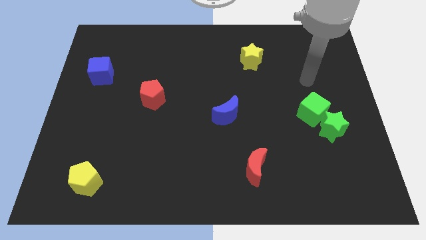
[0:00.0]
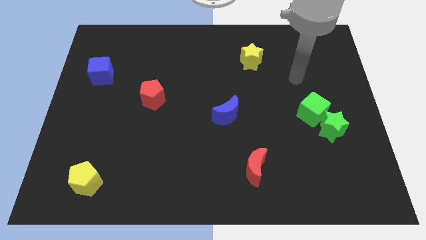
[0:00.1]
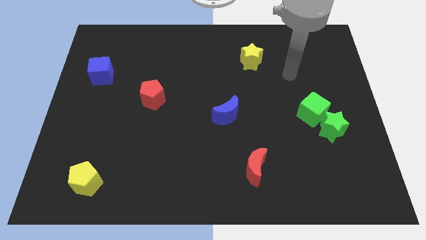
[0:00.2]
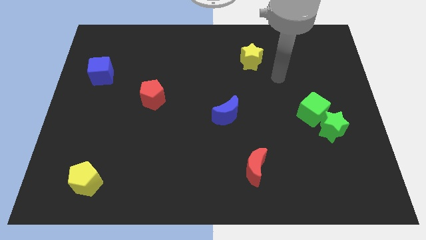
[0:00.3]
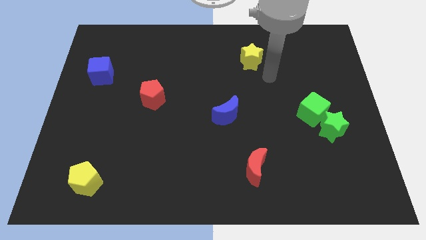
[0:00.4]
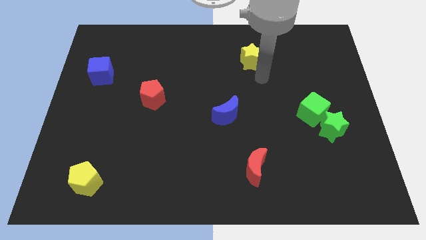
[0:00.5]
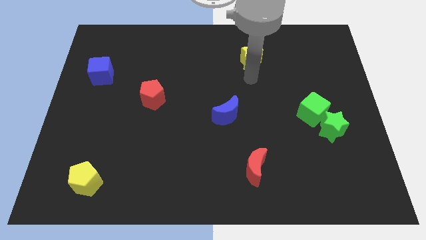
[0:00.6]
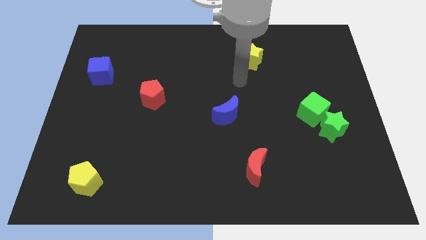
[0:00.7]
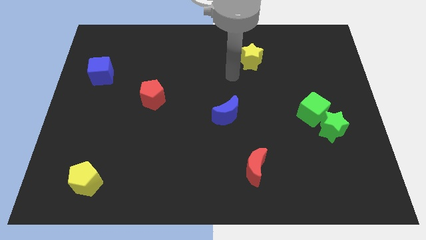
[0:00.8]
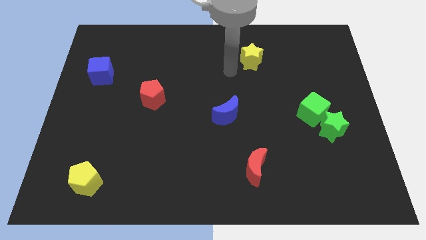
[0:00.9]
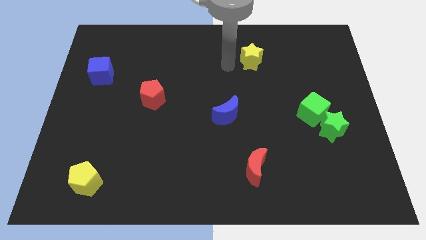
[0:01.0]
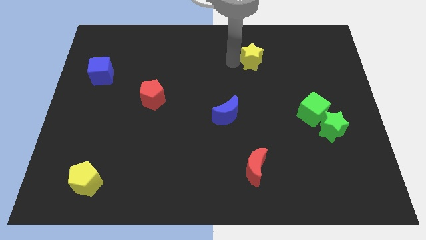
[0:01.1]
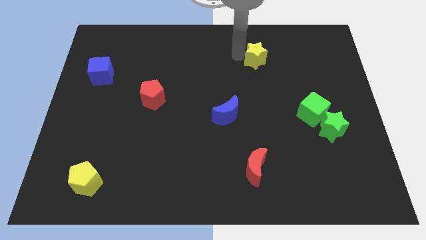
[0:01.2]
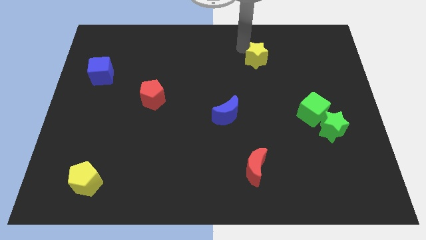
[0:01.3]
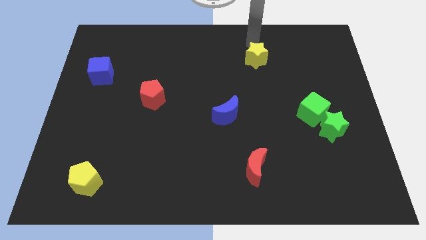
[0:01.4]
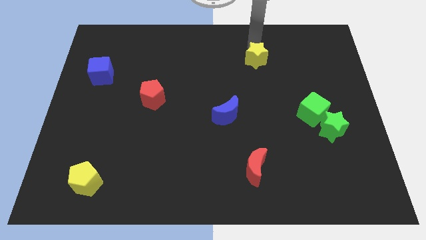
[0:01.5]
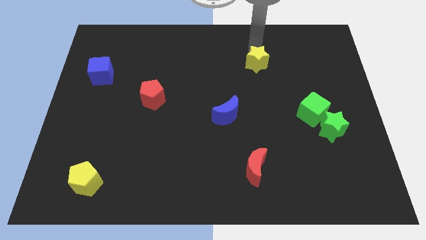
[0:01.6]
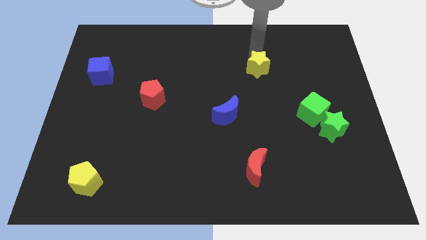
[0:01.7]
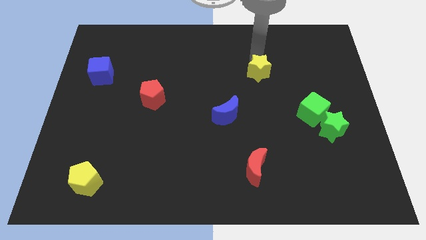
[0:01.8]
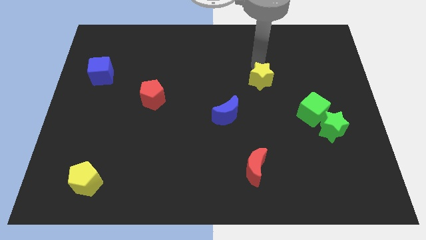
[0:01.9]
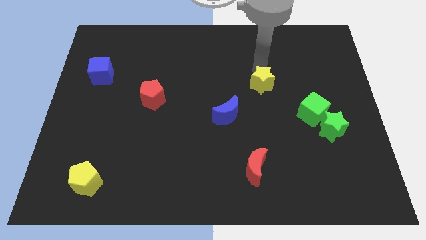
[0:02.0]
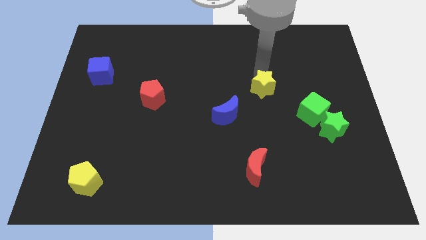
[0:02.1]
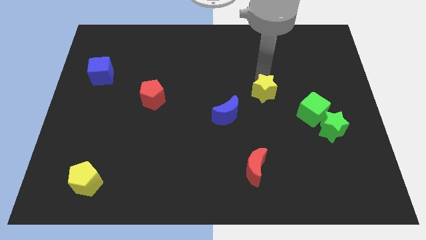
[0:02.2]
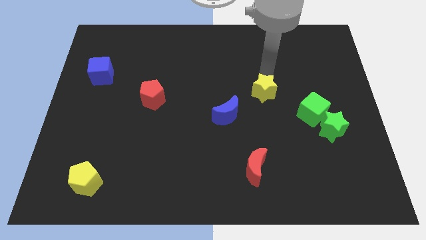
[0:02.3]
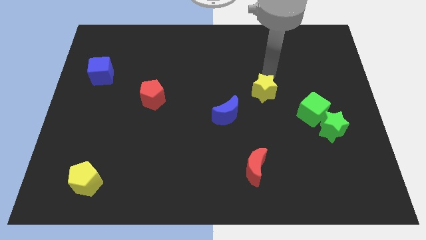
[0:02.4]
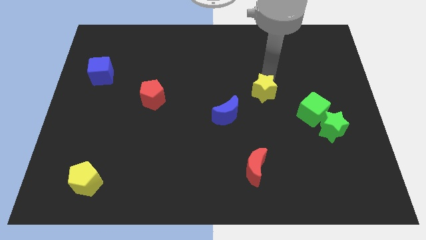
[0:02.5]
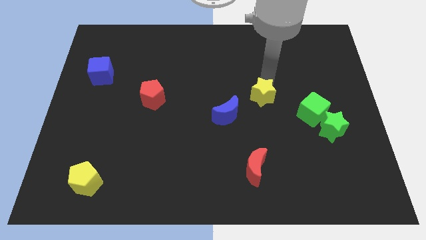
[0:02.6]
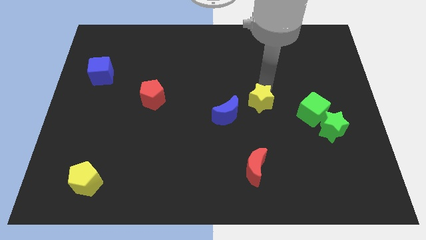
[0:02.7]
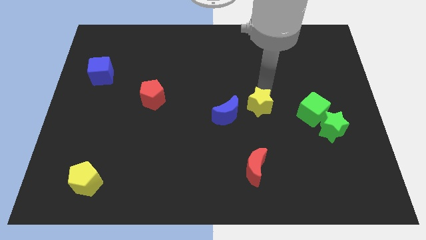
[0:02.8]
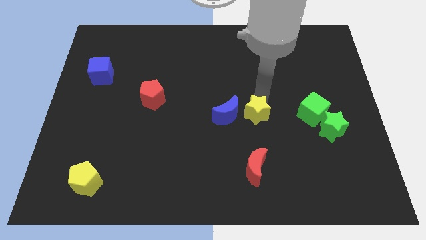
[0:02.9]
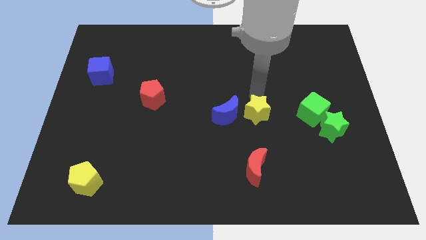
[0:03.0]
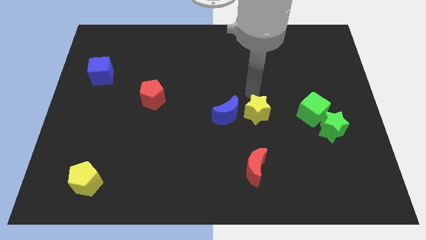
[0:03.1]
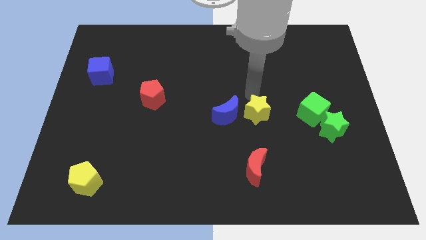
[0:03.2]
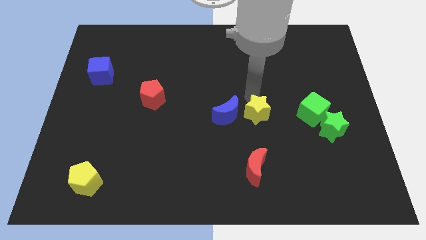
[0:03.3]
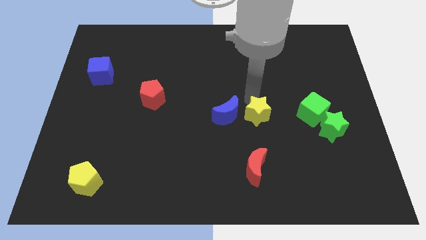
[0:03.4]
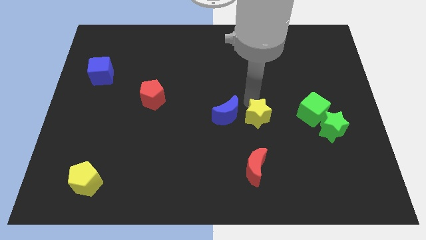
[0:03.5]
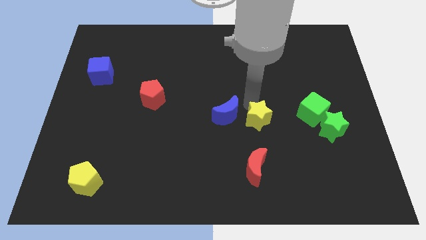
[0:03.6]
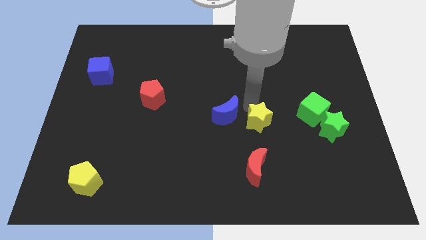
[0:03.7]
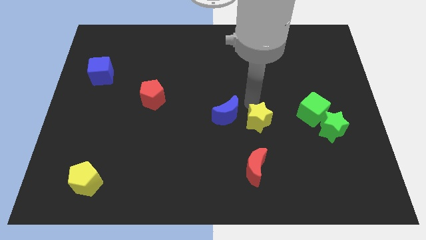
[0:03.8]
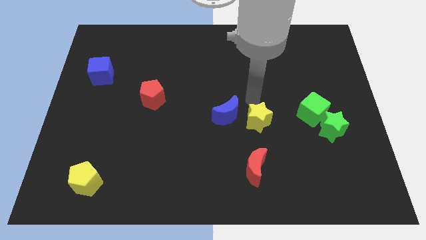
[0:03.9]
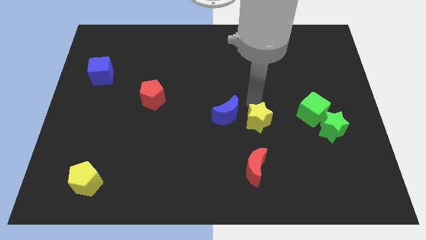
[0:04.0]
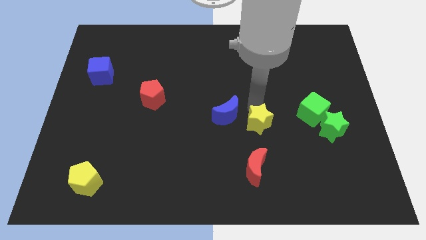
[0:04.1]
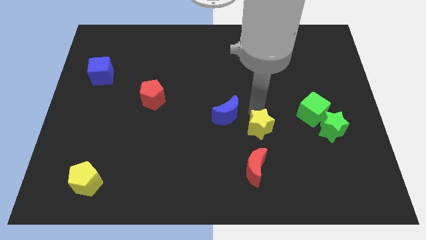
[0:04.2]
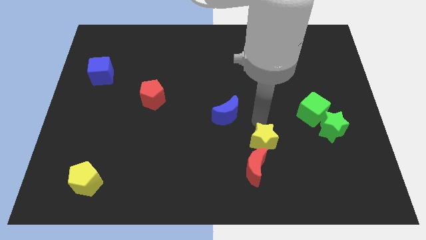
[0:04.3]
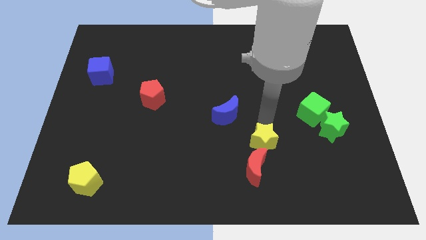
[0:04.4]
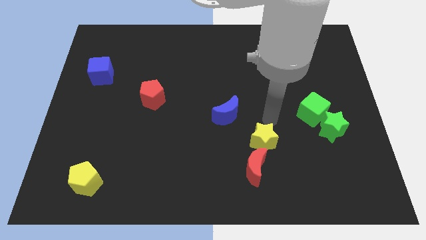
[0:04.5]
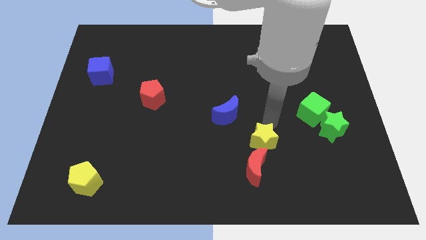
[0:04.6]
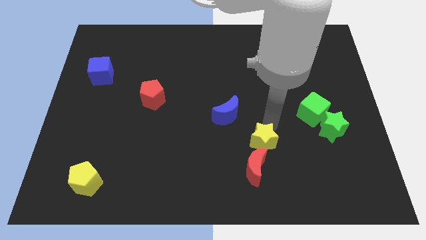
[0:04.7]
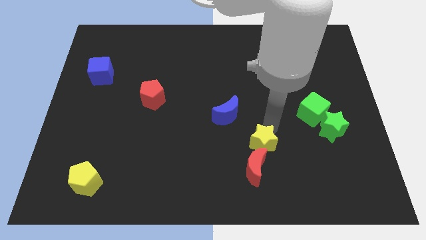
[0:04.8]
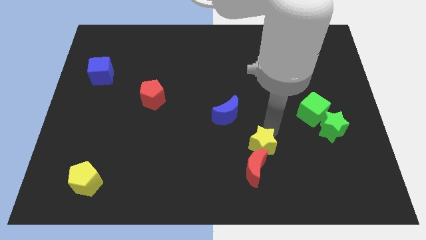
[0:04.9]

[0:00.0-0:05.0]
push the yellow star to the red moon

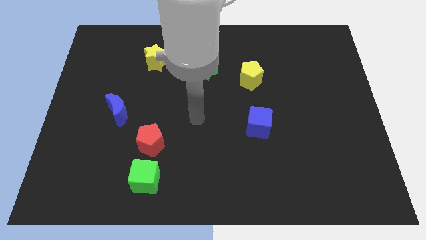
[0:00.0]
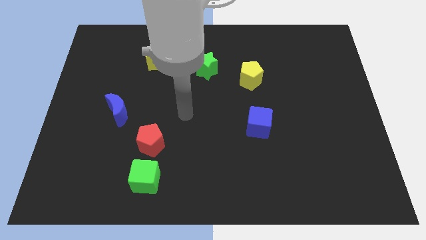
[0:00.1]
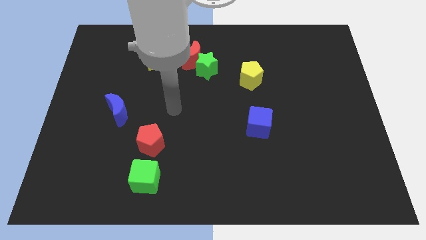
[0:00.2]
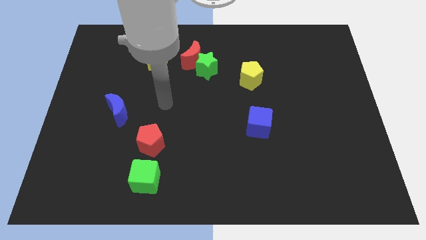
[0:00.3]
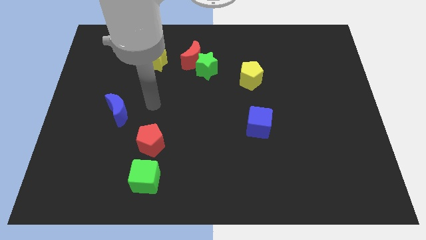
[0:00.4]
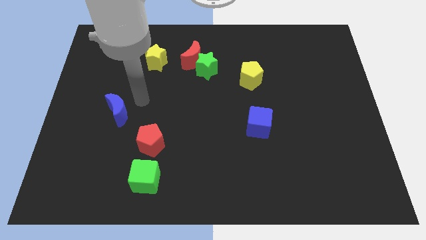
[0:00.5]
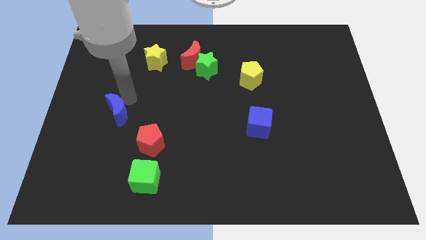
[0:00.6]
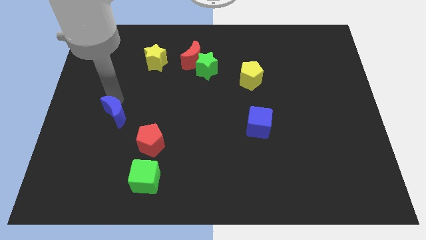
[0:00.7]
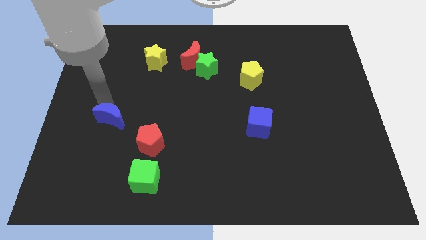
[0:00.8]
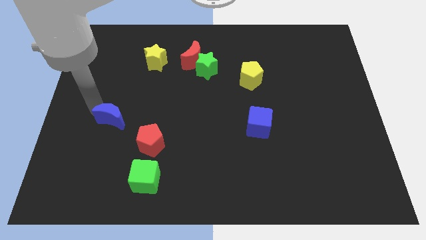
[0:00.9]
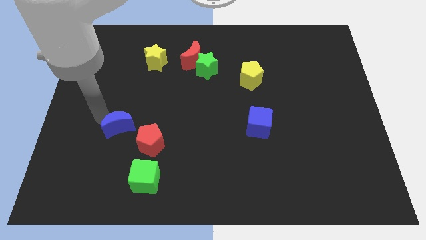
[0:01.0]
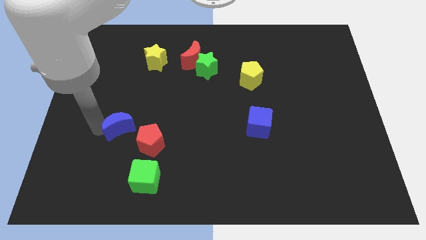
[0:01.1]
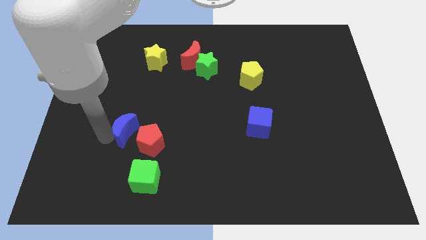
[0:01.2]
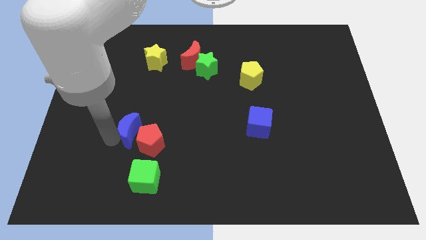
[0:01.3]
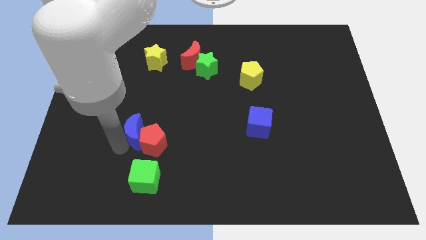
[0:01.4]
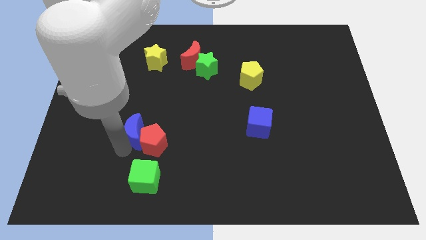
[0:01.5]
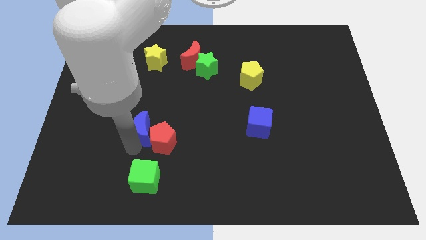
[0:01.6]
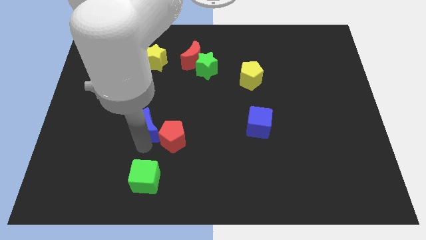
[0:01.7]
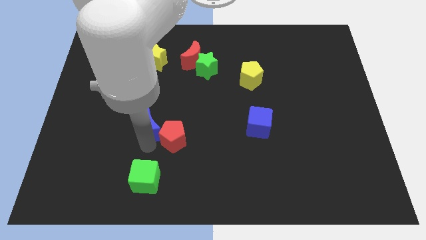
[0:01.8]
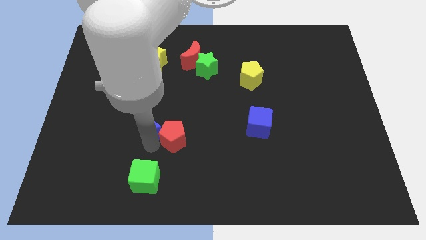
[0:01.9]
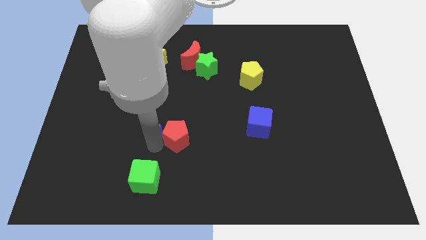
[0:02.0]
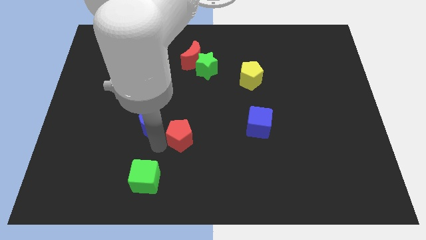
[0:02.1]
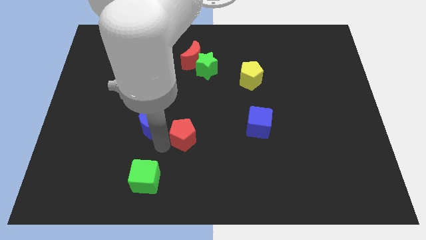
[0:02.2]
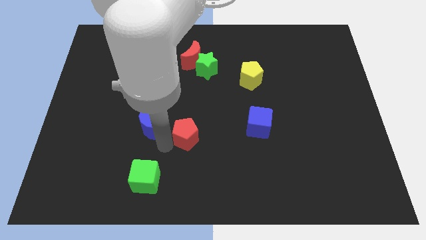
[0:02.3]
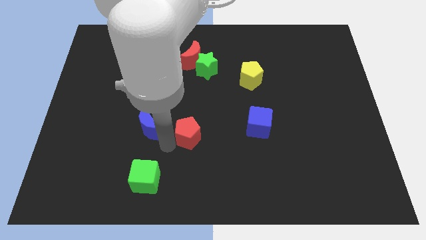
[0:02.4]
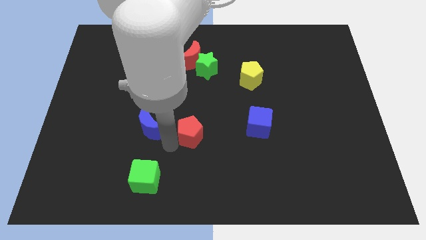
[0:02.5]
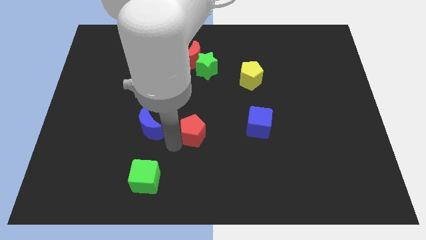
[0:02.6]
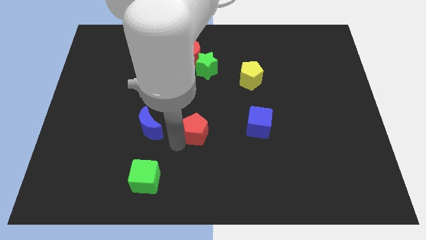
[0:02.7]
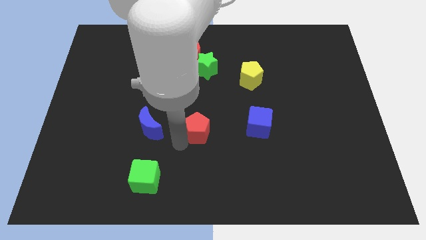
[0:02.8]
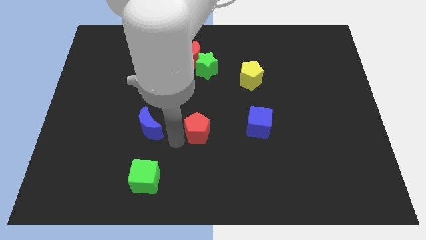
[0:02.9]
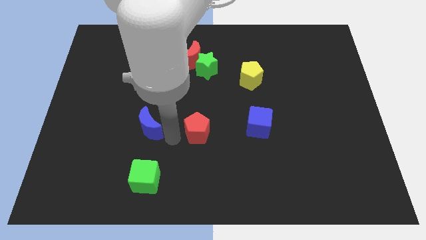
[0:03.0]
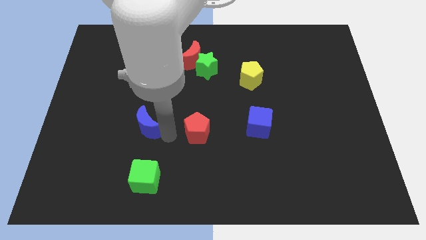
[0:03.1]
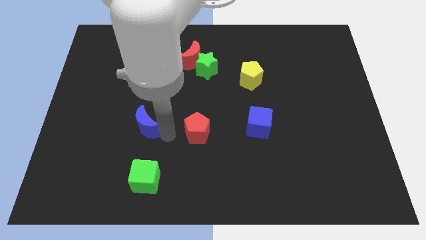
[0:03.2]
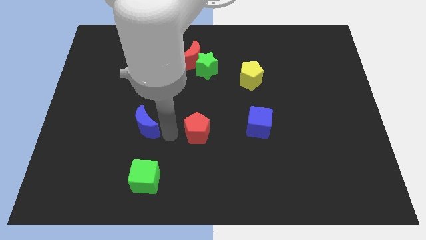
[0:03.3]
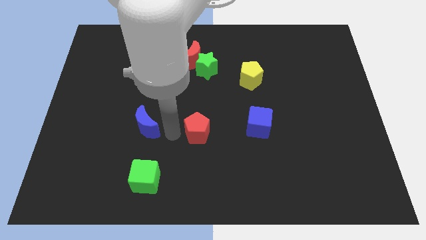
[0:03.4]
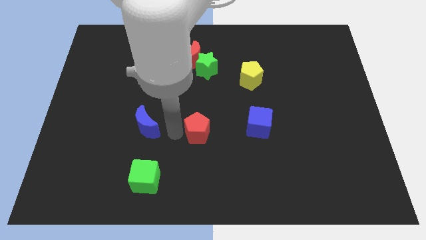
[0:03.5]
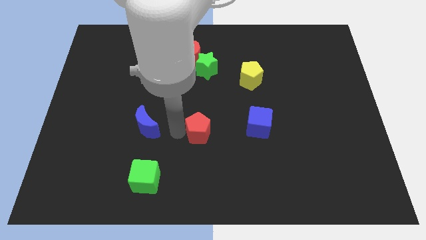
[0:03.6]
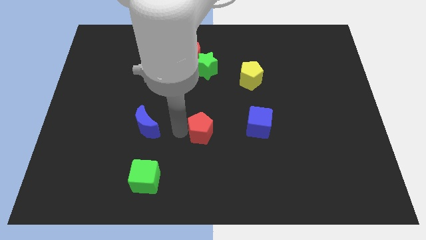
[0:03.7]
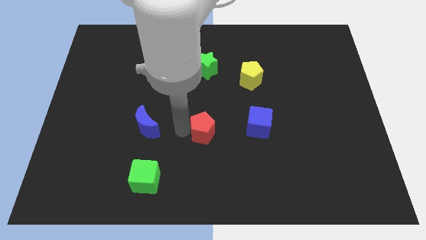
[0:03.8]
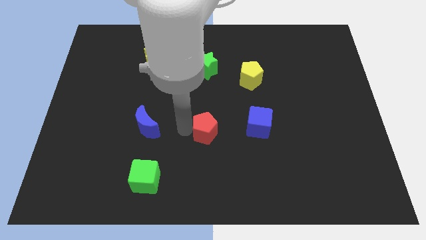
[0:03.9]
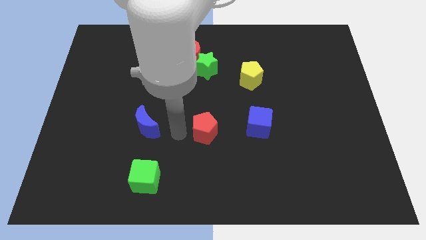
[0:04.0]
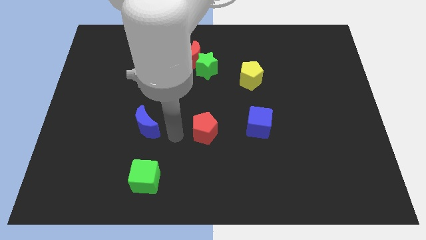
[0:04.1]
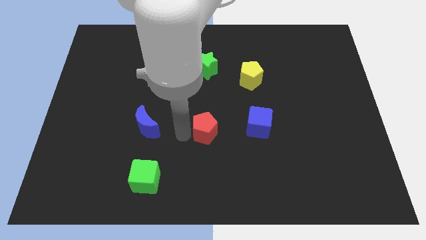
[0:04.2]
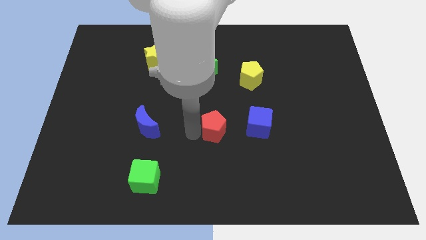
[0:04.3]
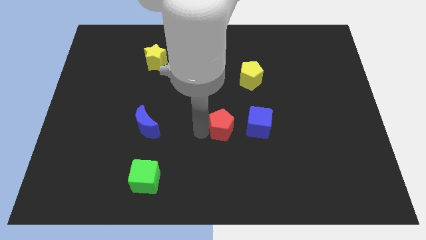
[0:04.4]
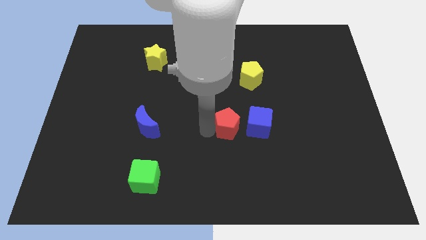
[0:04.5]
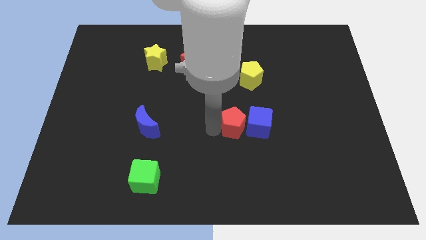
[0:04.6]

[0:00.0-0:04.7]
put the red pentagon towards the blue cube
